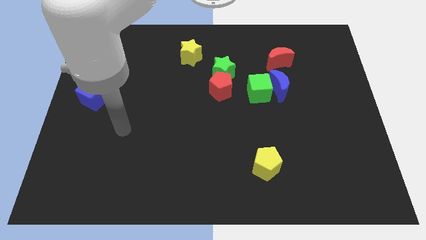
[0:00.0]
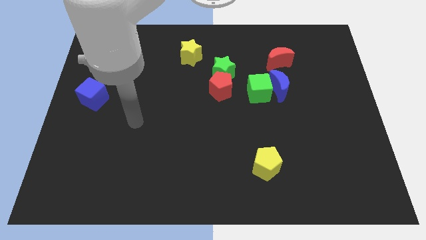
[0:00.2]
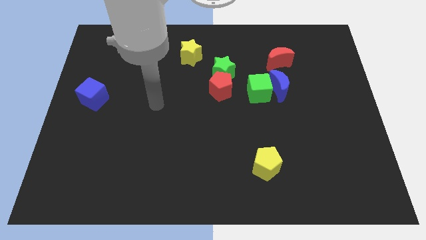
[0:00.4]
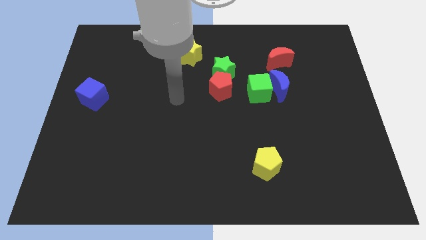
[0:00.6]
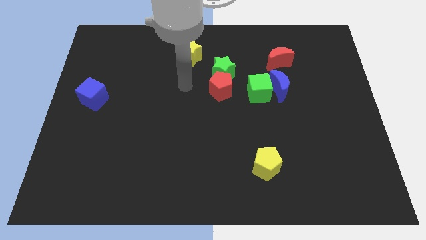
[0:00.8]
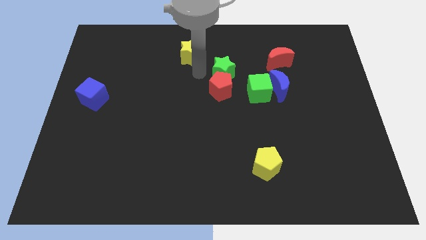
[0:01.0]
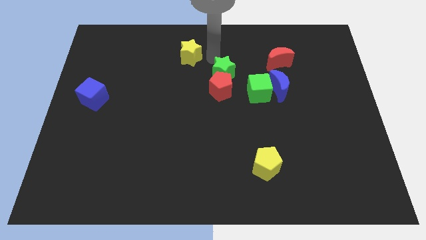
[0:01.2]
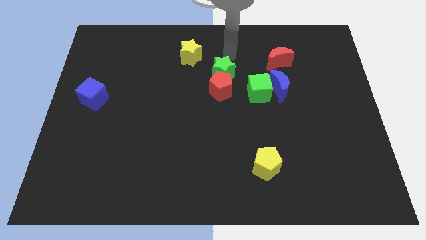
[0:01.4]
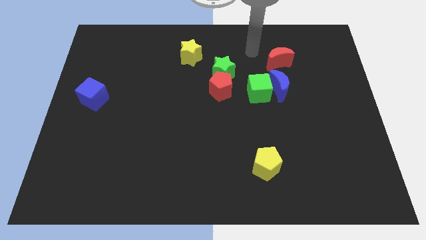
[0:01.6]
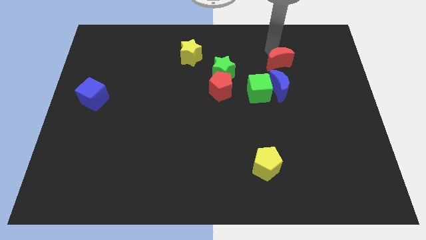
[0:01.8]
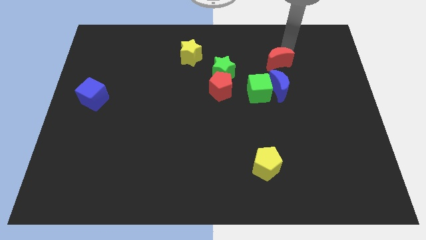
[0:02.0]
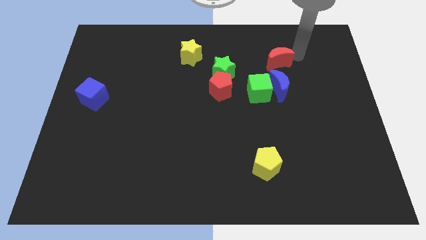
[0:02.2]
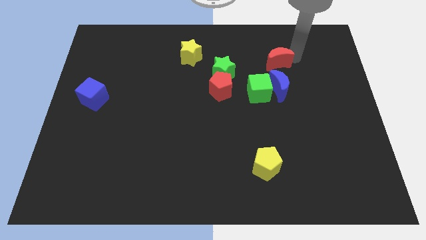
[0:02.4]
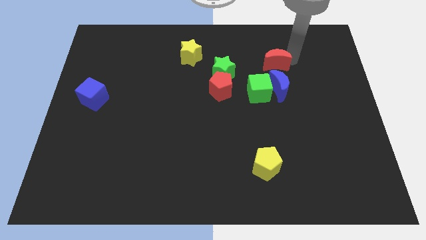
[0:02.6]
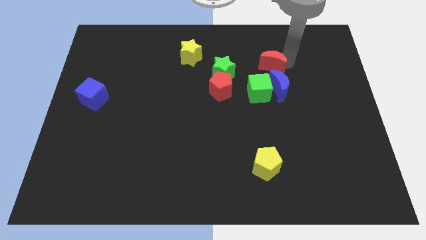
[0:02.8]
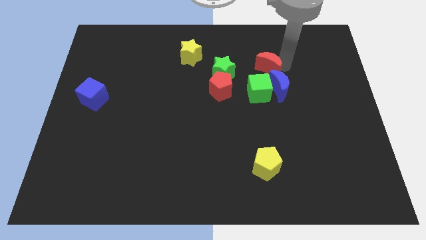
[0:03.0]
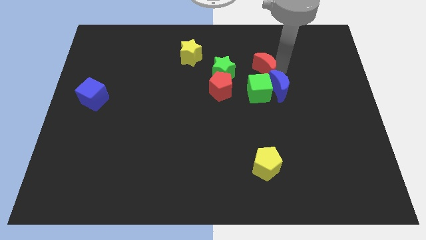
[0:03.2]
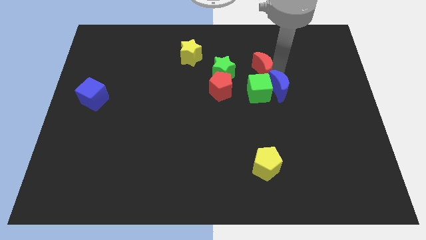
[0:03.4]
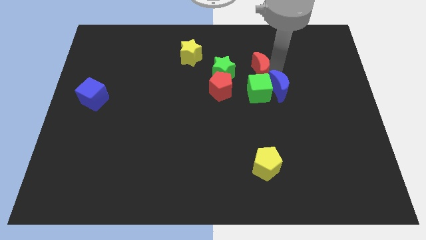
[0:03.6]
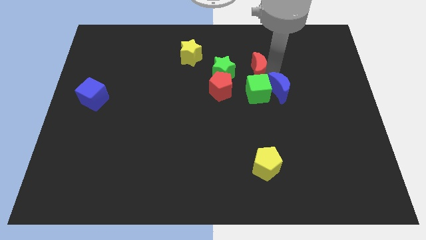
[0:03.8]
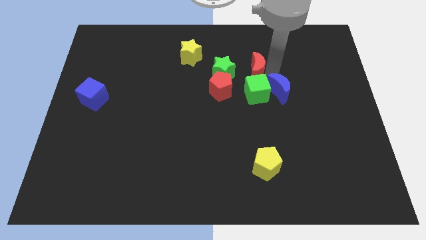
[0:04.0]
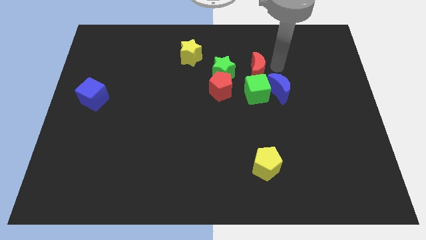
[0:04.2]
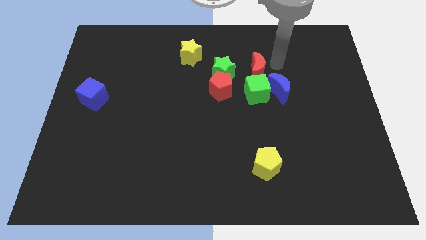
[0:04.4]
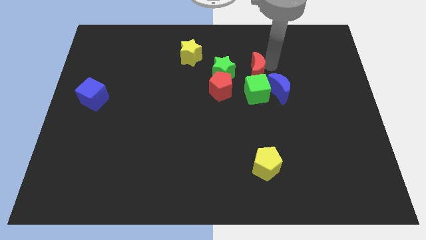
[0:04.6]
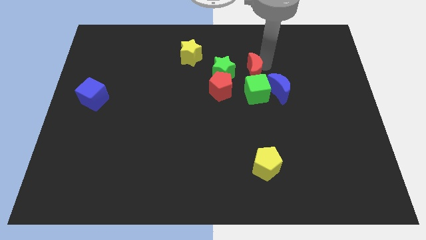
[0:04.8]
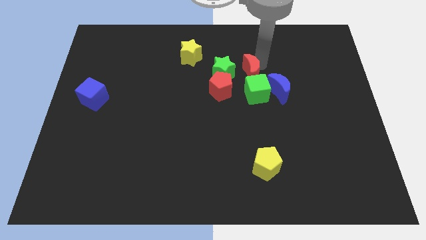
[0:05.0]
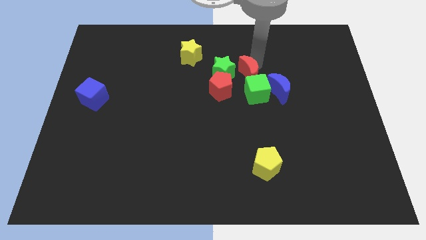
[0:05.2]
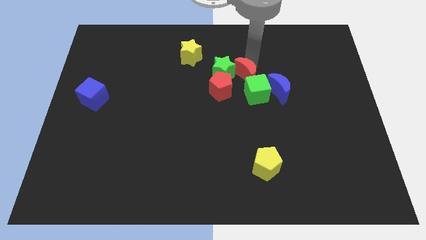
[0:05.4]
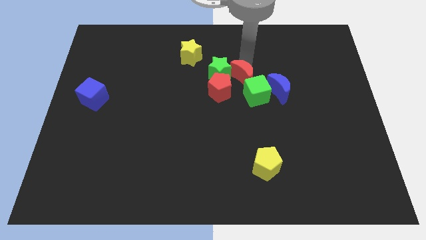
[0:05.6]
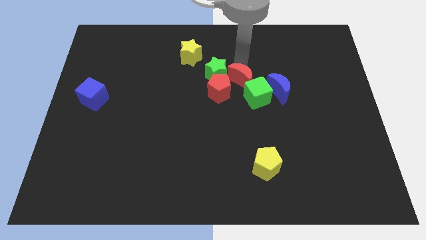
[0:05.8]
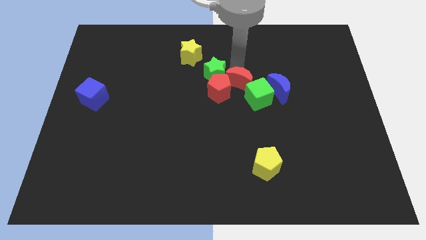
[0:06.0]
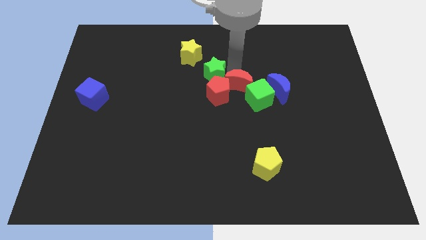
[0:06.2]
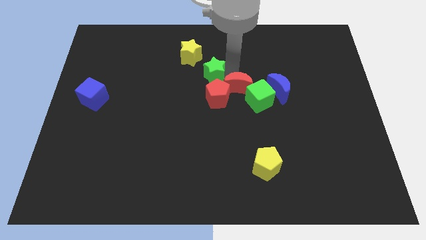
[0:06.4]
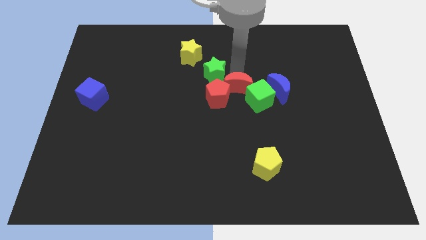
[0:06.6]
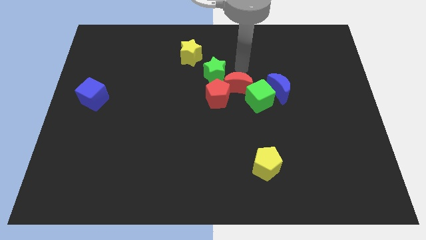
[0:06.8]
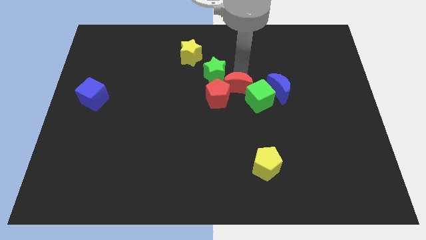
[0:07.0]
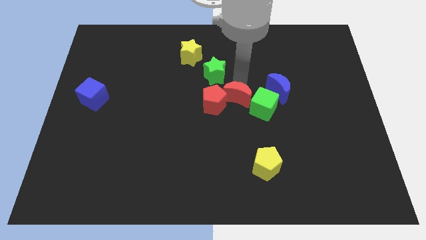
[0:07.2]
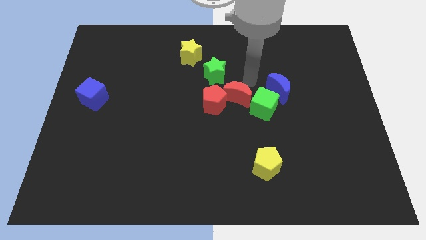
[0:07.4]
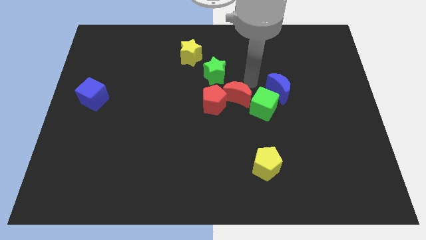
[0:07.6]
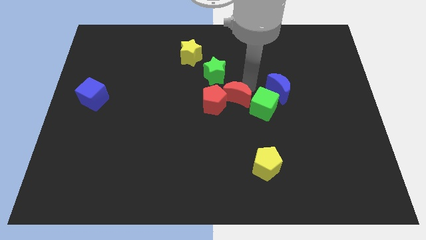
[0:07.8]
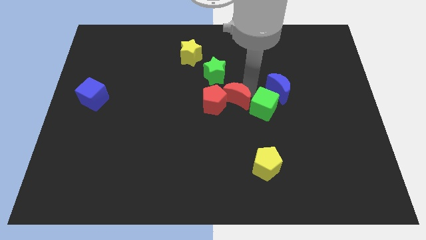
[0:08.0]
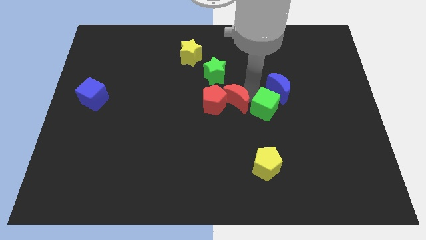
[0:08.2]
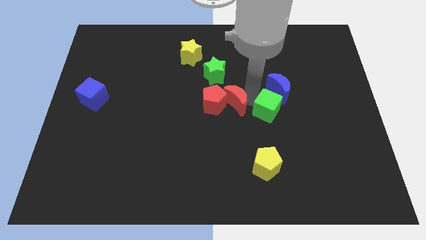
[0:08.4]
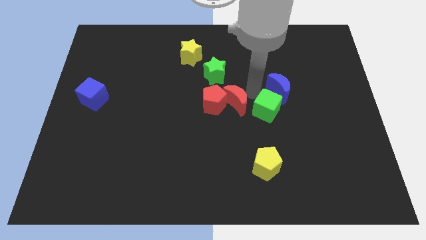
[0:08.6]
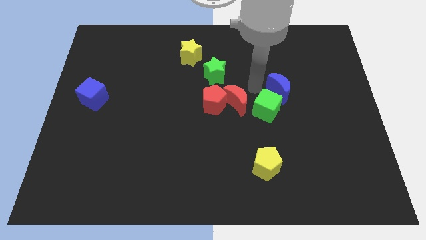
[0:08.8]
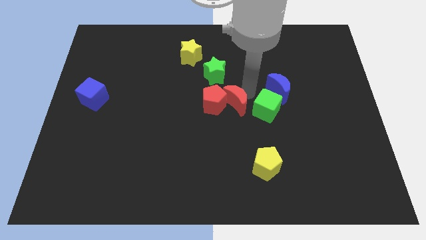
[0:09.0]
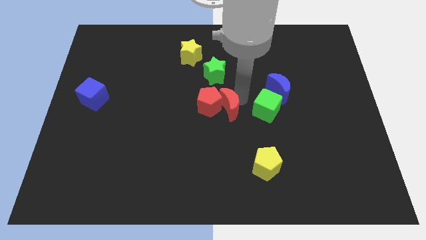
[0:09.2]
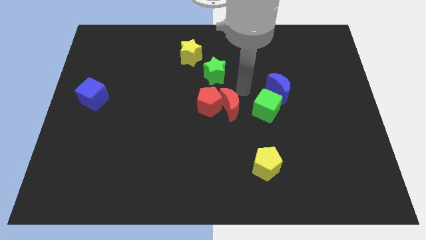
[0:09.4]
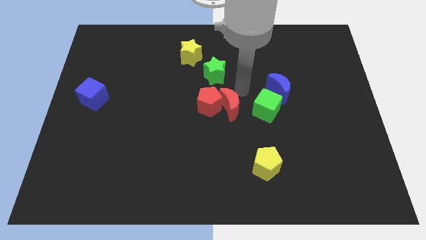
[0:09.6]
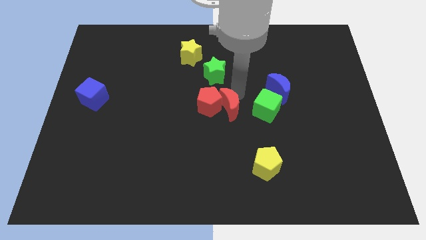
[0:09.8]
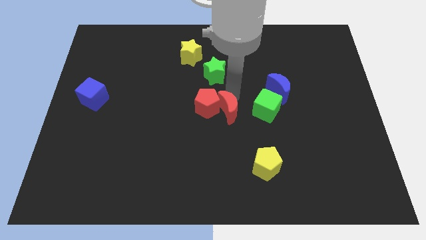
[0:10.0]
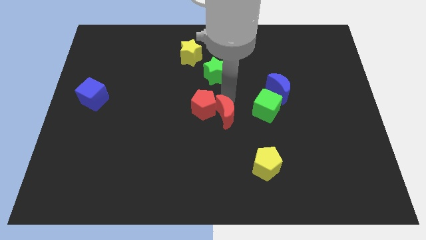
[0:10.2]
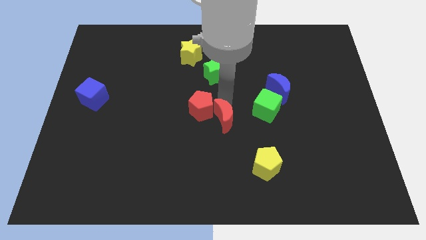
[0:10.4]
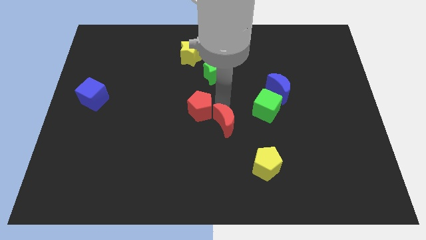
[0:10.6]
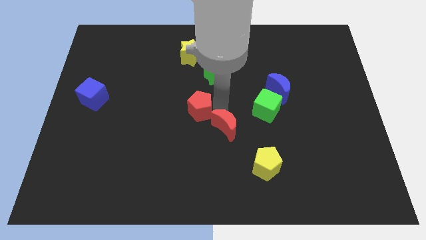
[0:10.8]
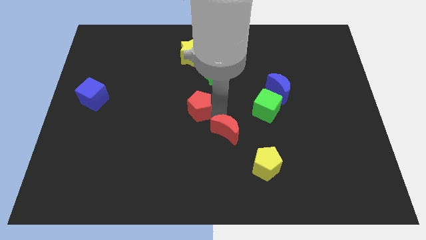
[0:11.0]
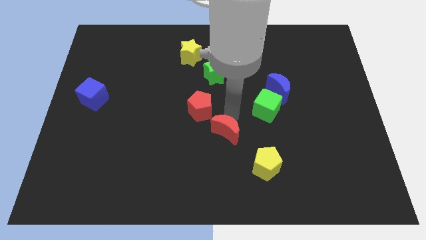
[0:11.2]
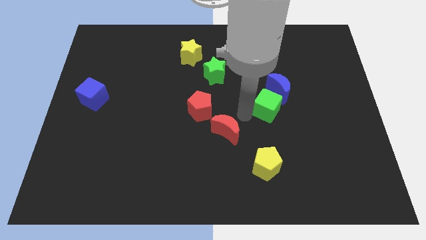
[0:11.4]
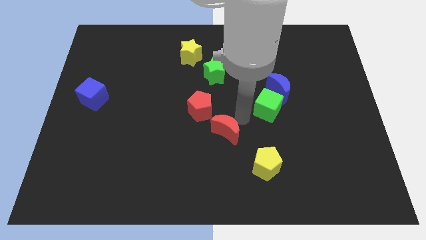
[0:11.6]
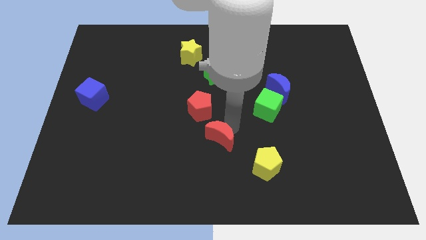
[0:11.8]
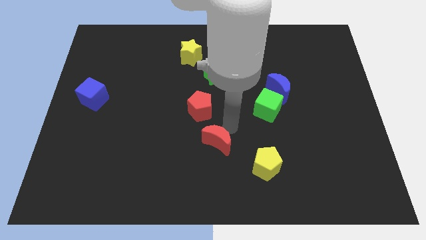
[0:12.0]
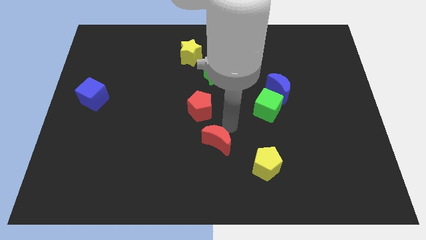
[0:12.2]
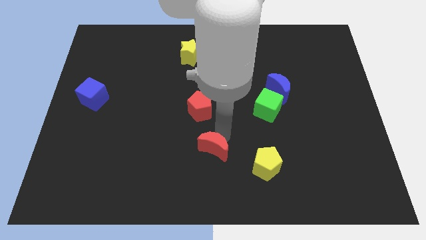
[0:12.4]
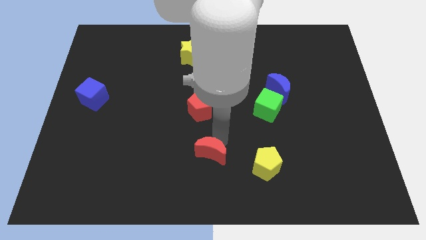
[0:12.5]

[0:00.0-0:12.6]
push the red moon to the bottom

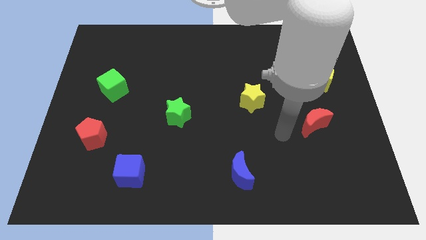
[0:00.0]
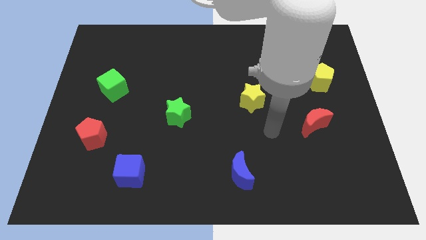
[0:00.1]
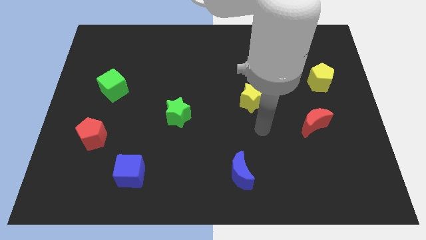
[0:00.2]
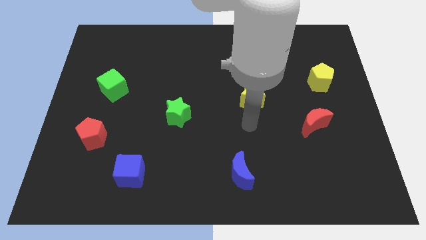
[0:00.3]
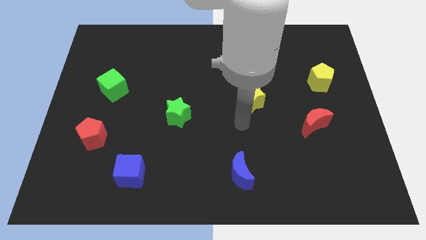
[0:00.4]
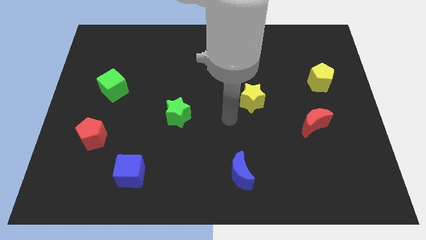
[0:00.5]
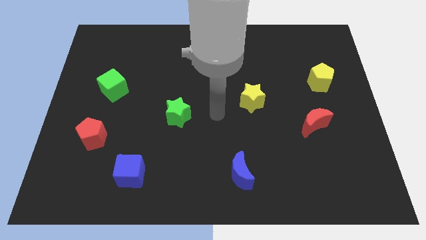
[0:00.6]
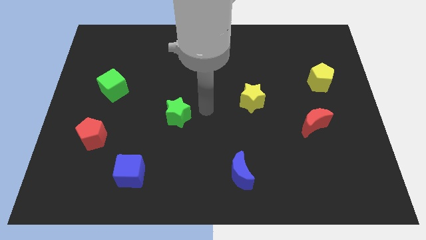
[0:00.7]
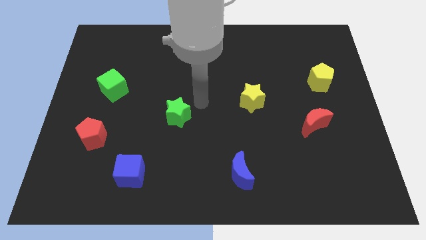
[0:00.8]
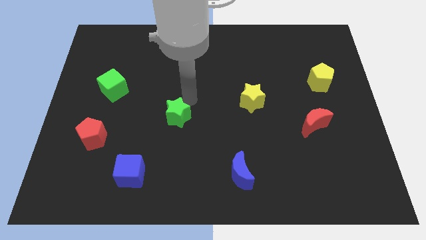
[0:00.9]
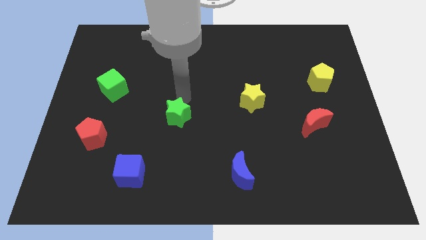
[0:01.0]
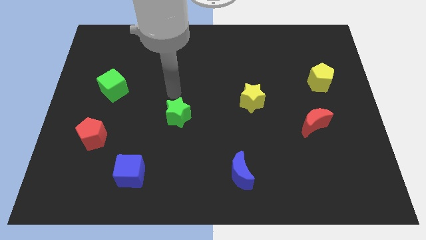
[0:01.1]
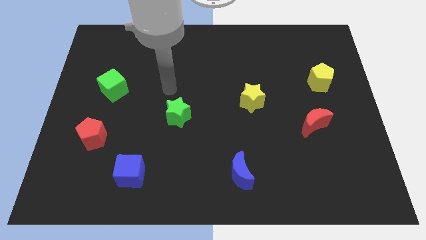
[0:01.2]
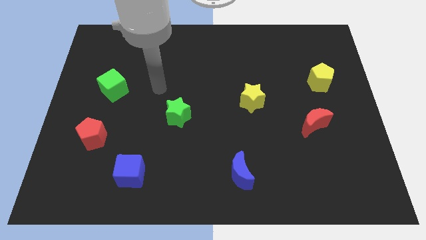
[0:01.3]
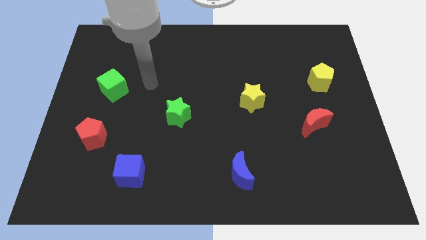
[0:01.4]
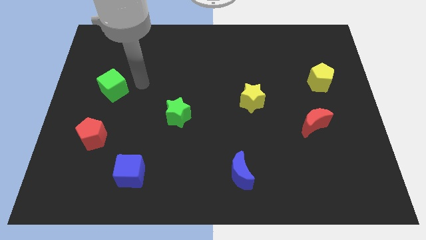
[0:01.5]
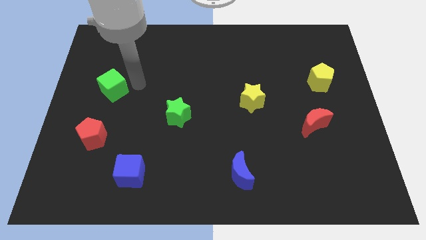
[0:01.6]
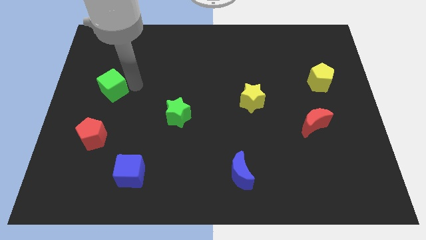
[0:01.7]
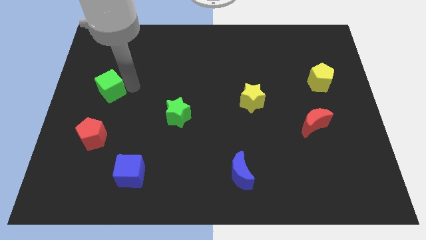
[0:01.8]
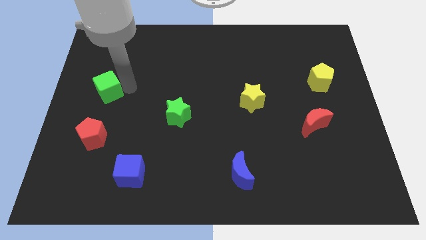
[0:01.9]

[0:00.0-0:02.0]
move the green cube to the center left
